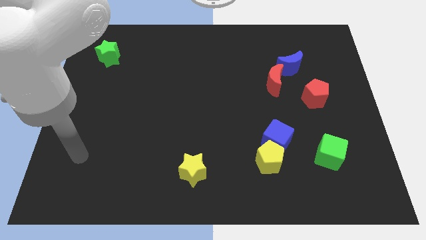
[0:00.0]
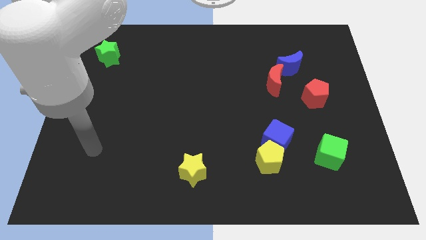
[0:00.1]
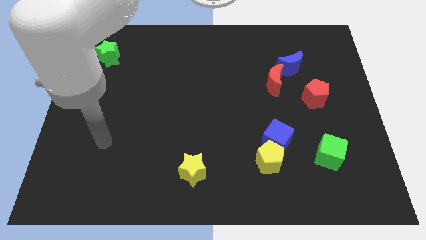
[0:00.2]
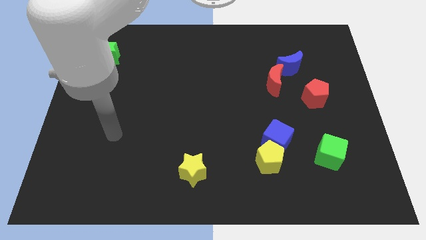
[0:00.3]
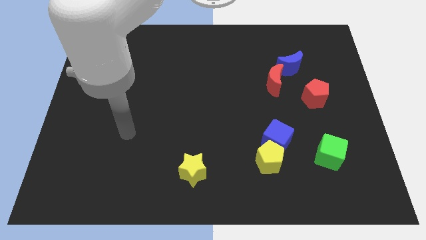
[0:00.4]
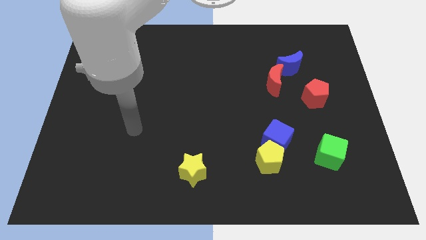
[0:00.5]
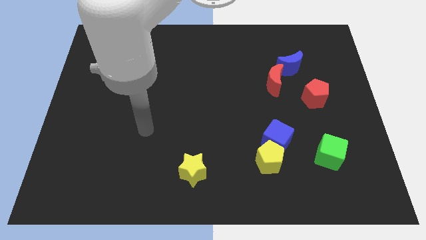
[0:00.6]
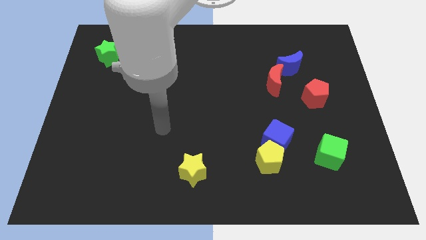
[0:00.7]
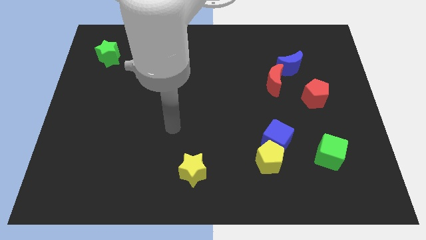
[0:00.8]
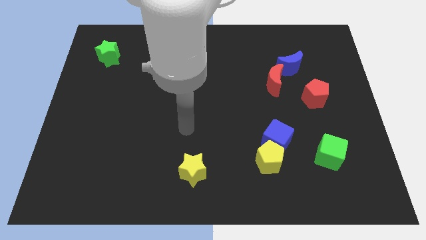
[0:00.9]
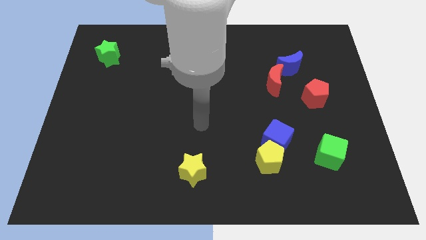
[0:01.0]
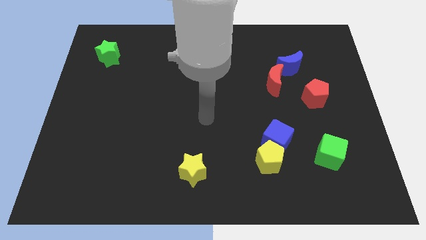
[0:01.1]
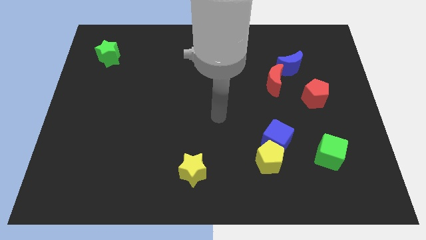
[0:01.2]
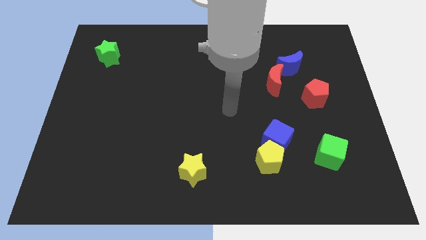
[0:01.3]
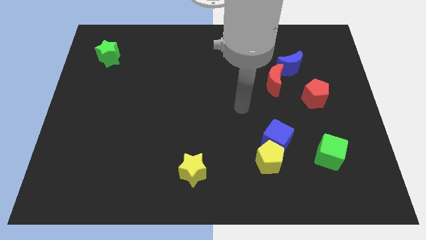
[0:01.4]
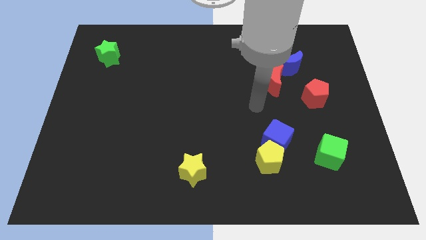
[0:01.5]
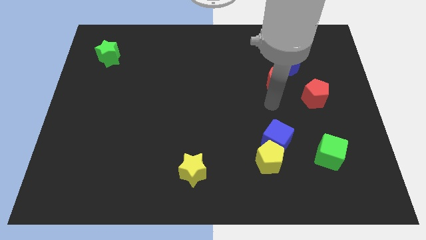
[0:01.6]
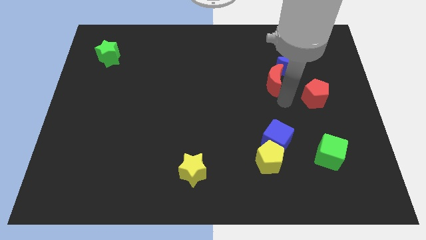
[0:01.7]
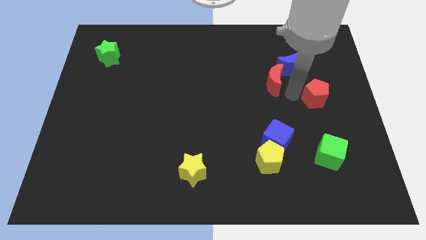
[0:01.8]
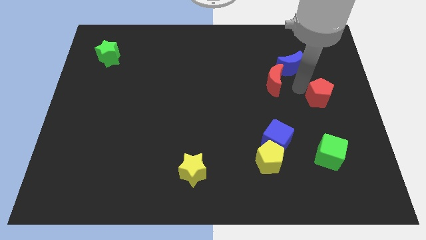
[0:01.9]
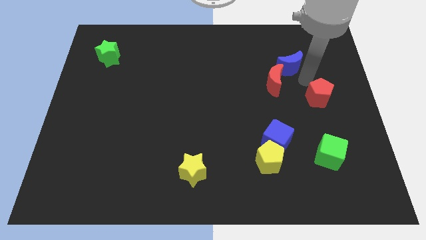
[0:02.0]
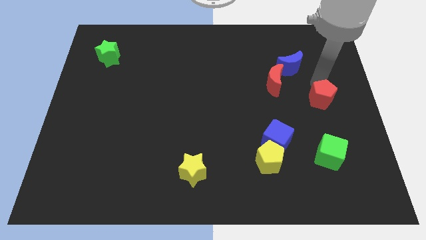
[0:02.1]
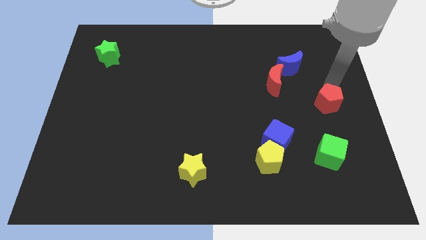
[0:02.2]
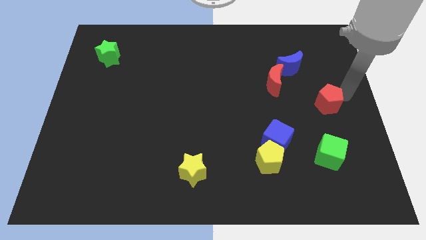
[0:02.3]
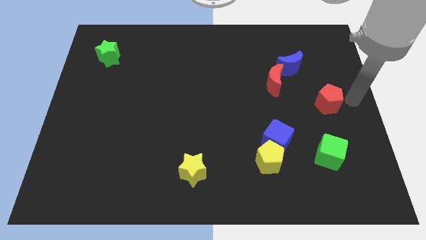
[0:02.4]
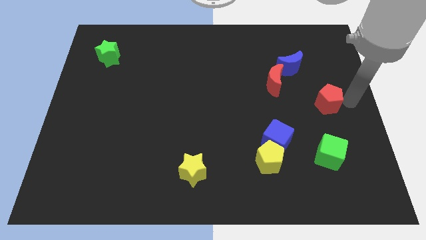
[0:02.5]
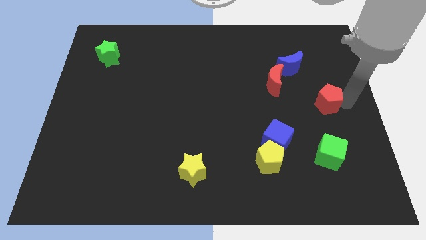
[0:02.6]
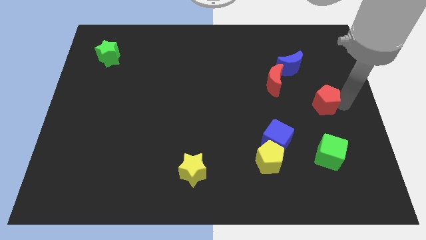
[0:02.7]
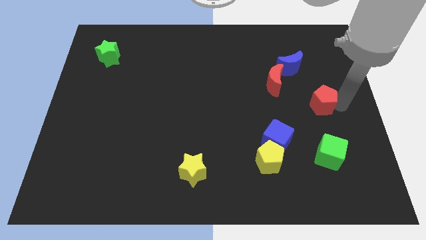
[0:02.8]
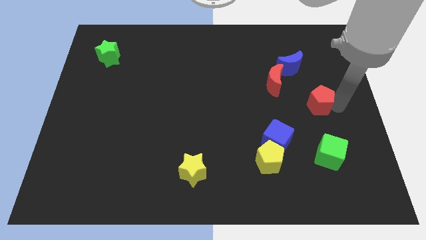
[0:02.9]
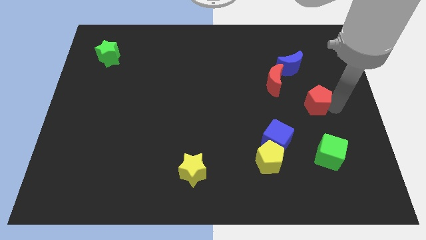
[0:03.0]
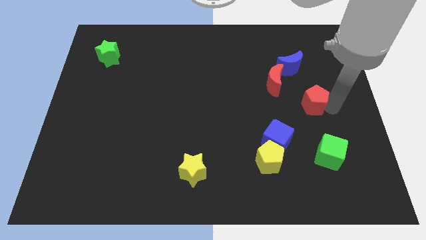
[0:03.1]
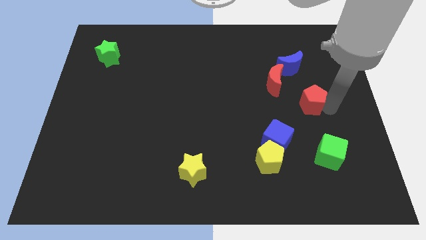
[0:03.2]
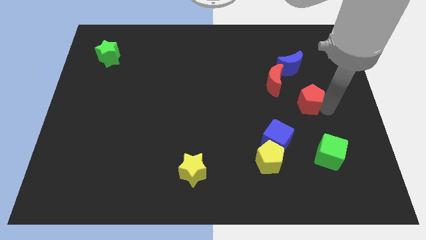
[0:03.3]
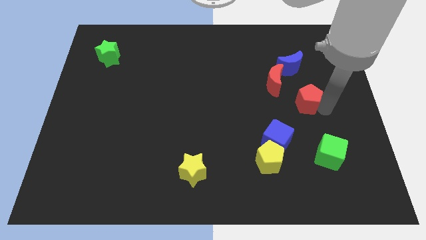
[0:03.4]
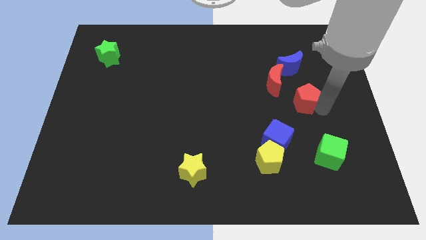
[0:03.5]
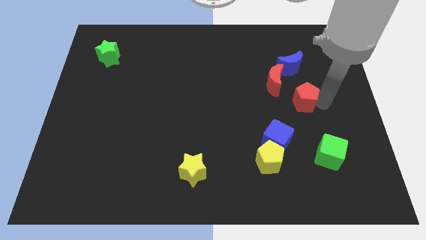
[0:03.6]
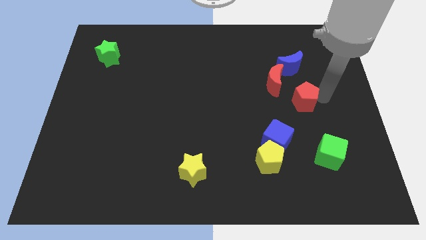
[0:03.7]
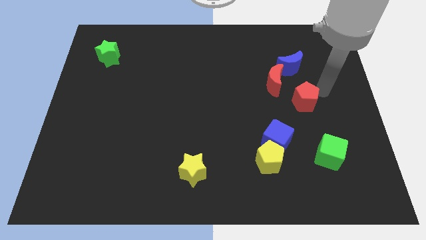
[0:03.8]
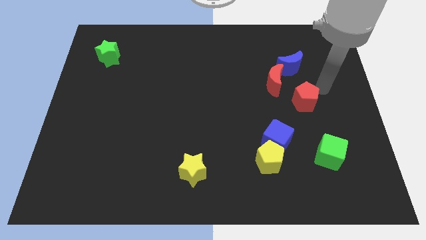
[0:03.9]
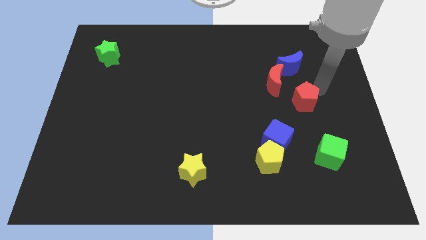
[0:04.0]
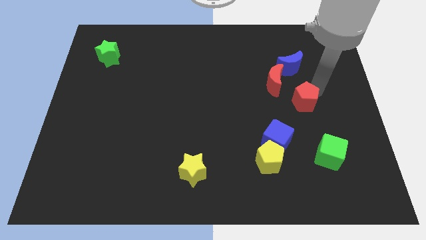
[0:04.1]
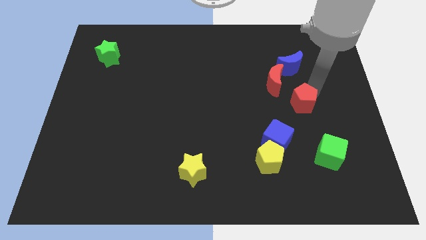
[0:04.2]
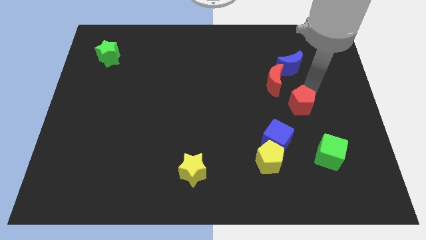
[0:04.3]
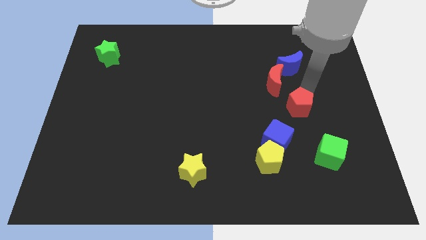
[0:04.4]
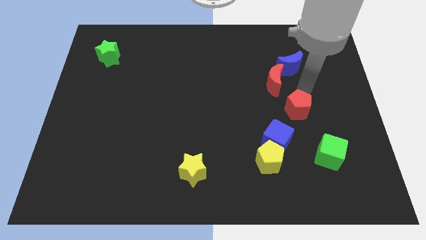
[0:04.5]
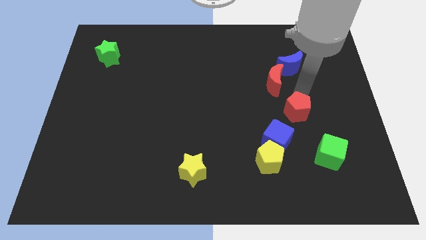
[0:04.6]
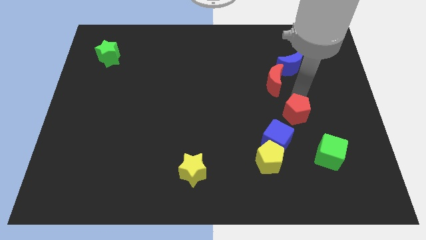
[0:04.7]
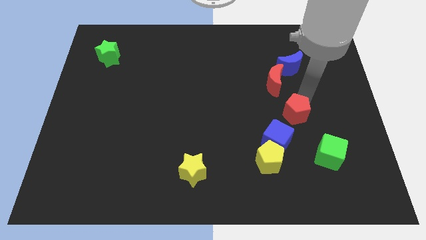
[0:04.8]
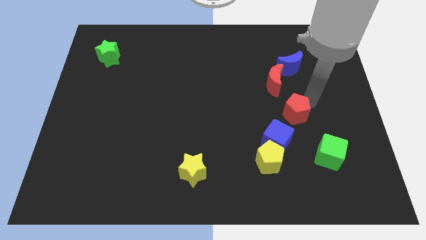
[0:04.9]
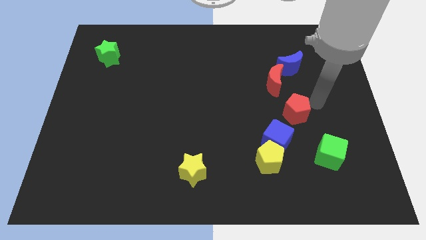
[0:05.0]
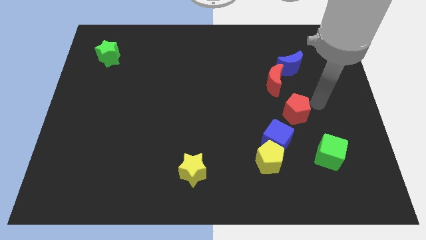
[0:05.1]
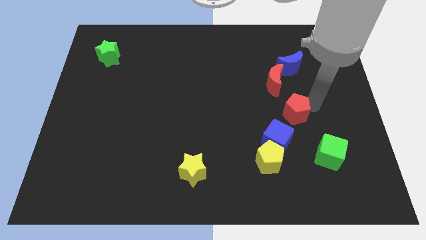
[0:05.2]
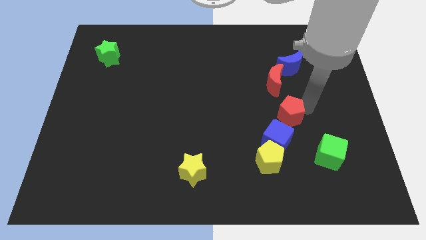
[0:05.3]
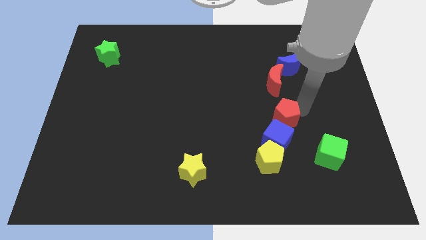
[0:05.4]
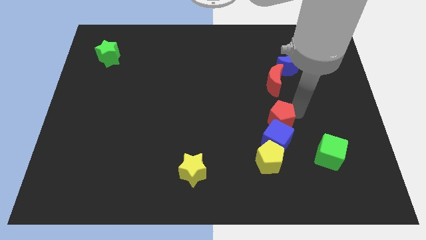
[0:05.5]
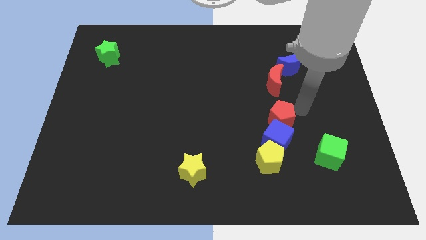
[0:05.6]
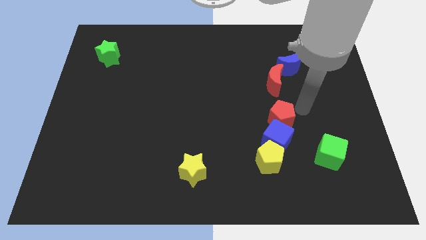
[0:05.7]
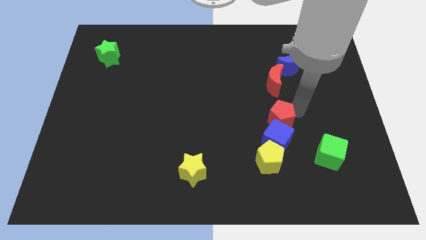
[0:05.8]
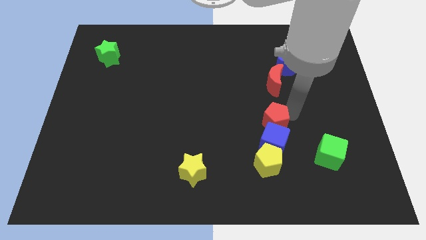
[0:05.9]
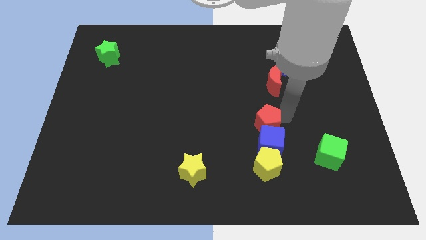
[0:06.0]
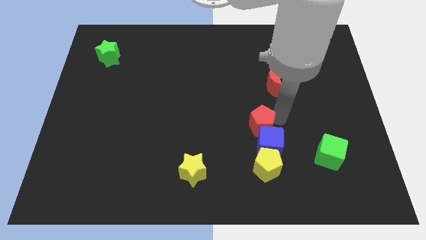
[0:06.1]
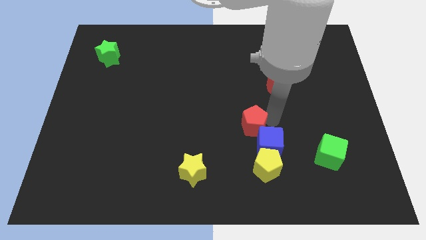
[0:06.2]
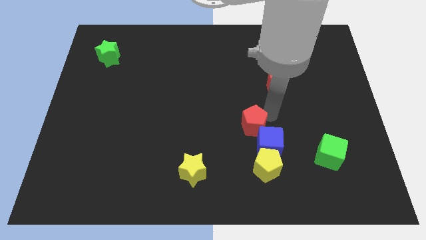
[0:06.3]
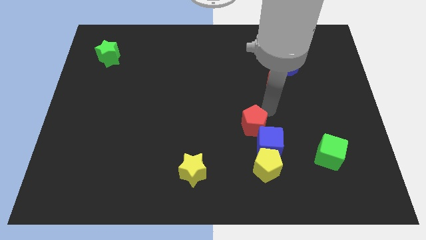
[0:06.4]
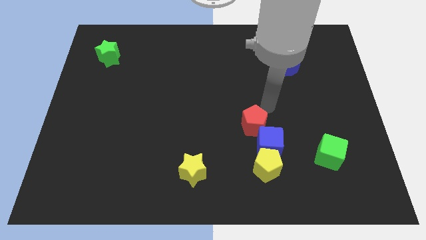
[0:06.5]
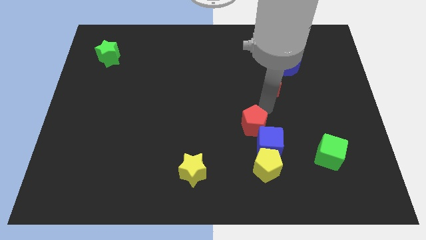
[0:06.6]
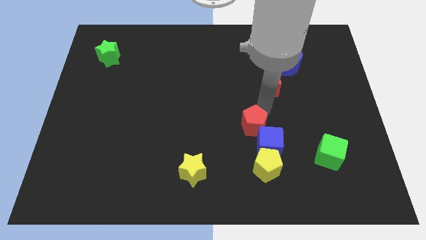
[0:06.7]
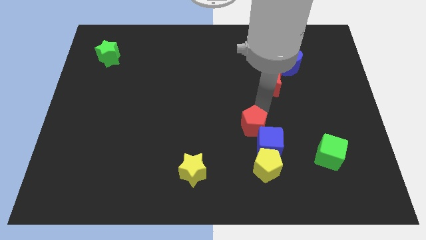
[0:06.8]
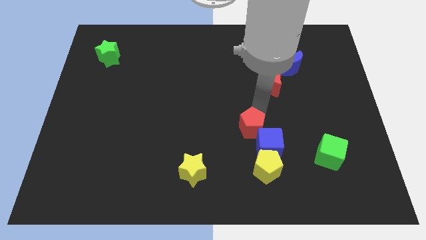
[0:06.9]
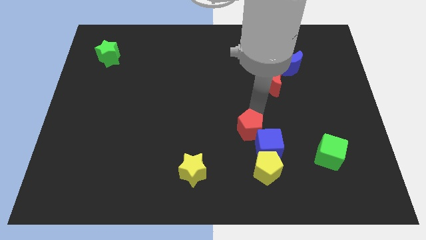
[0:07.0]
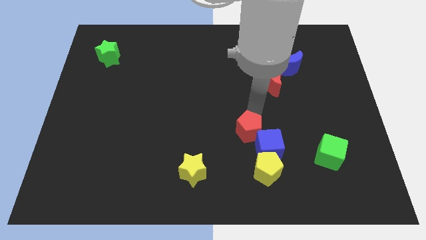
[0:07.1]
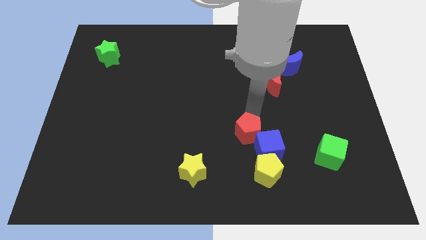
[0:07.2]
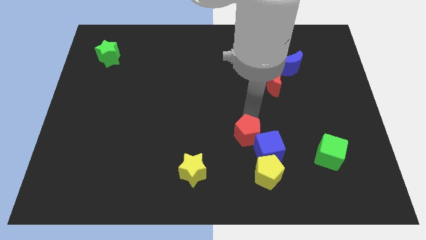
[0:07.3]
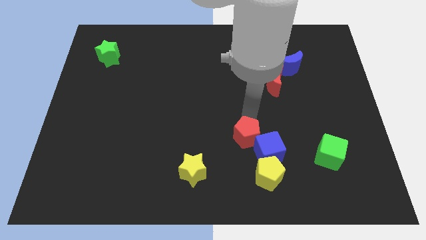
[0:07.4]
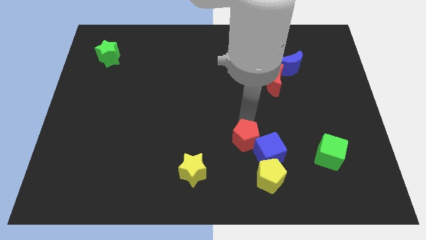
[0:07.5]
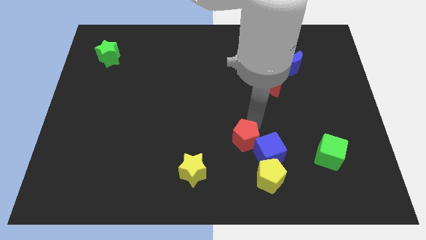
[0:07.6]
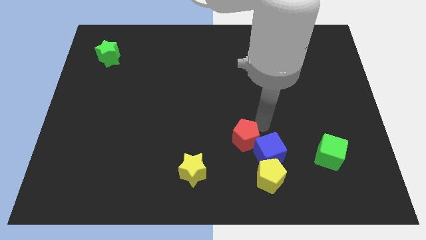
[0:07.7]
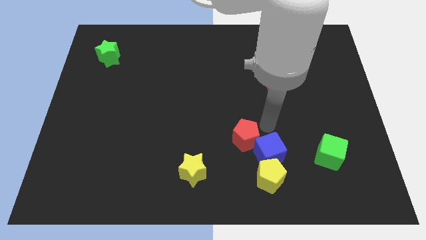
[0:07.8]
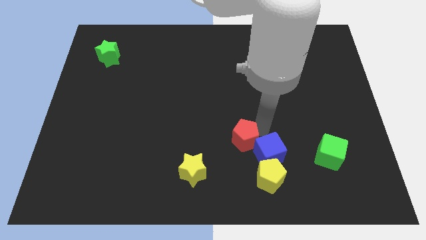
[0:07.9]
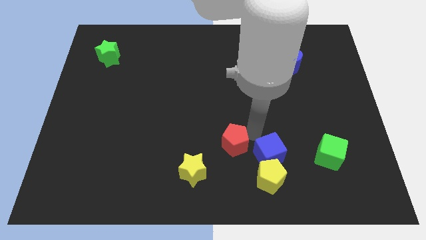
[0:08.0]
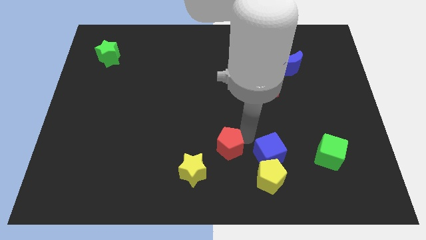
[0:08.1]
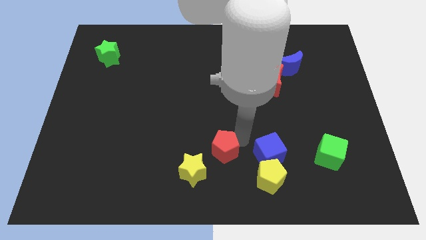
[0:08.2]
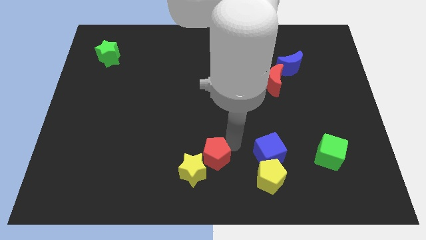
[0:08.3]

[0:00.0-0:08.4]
slide the red pentagon next to the yellow star
